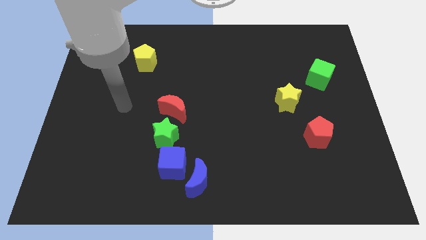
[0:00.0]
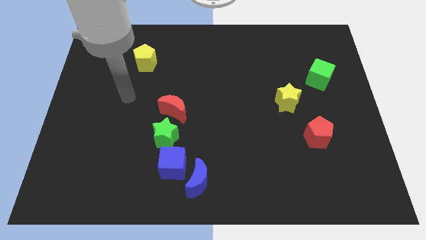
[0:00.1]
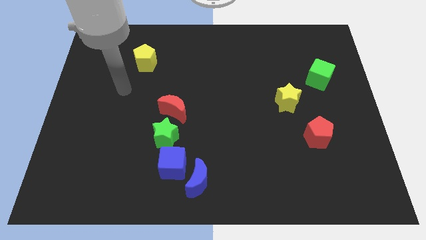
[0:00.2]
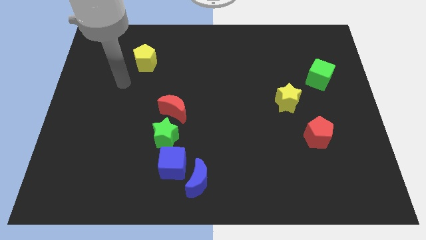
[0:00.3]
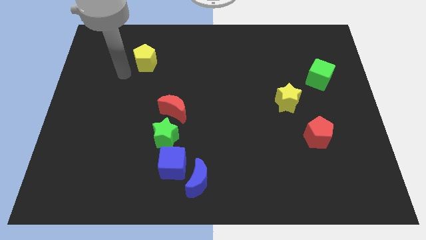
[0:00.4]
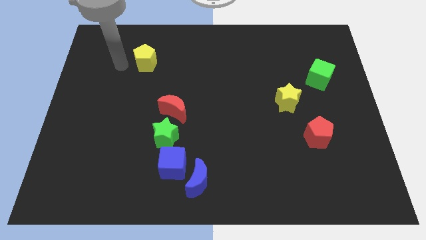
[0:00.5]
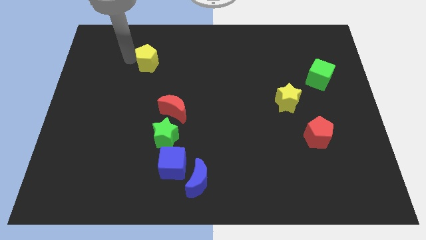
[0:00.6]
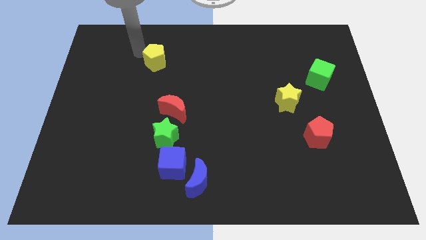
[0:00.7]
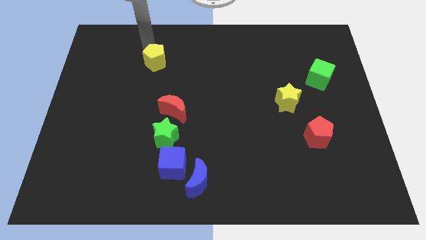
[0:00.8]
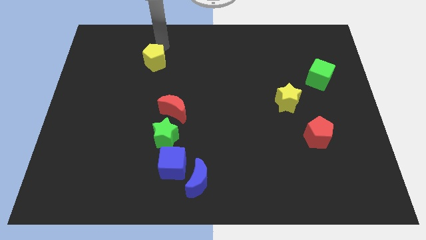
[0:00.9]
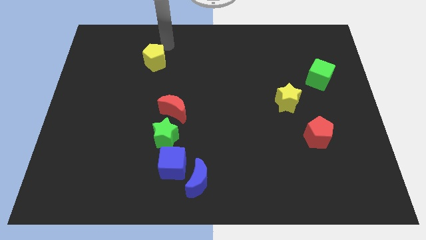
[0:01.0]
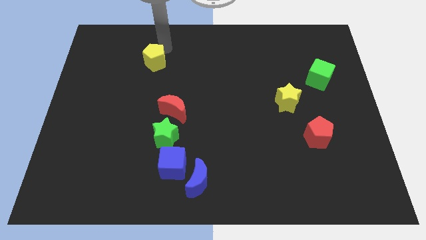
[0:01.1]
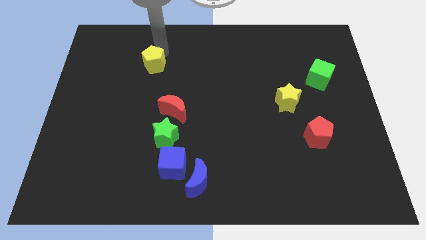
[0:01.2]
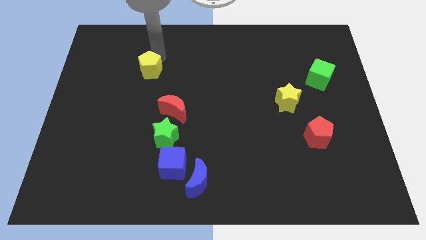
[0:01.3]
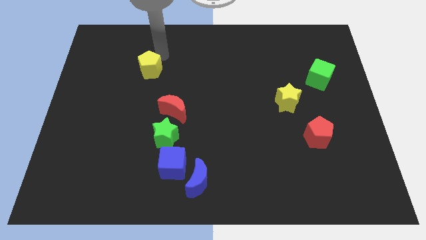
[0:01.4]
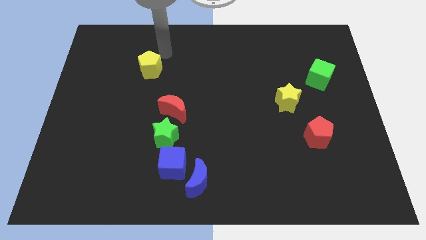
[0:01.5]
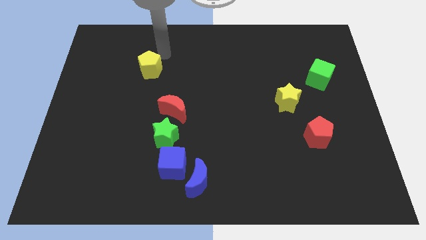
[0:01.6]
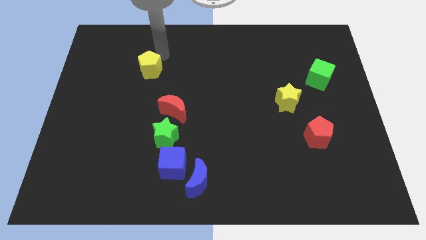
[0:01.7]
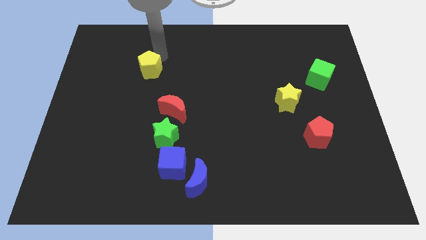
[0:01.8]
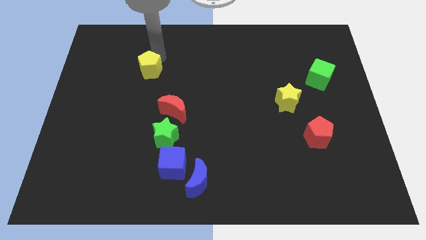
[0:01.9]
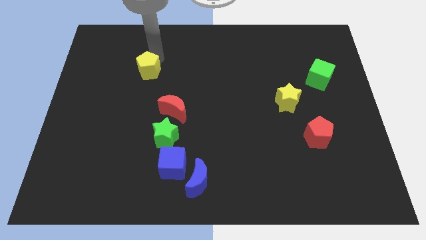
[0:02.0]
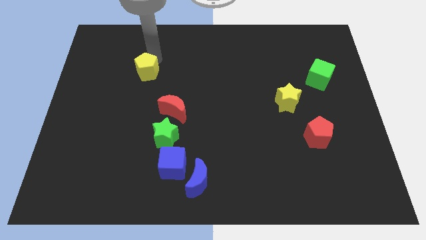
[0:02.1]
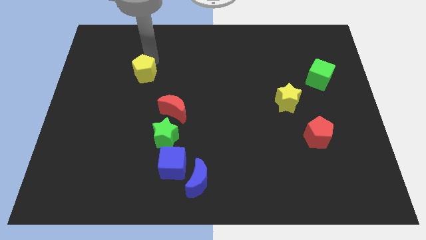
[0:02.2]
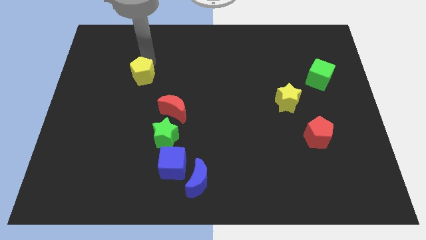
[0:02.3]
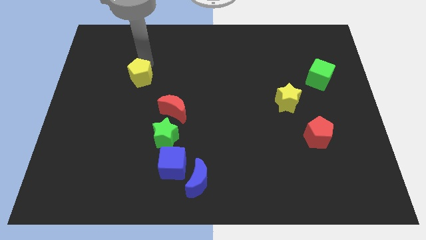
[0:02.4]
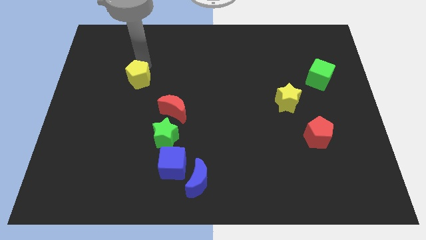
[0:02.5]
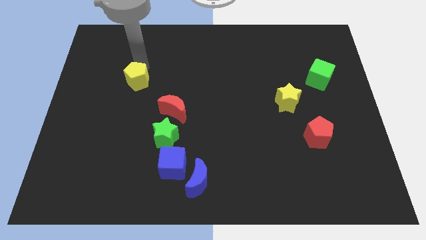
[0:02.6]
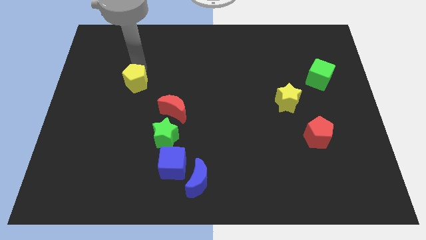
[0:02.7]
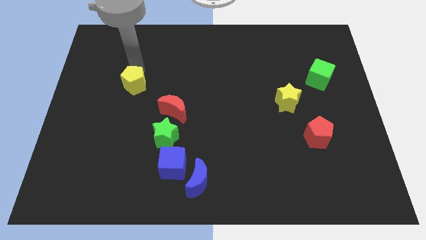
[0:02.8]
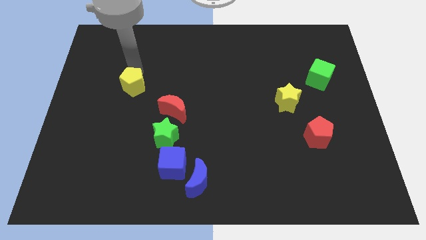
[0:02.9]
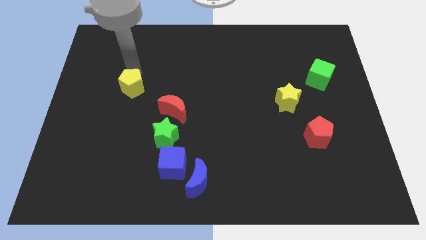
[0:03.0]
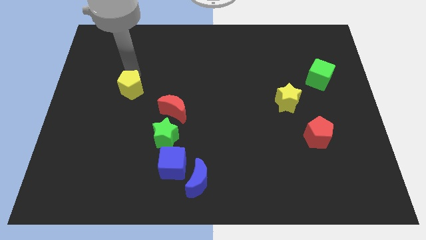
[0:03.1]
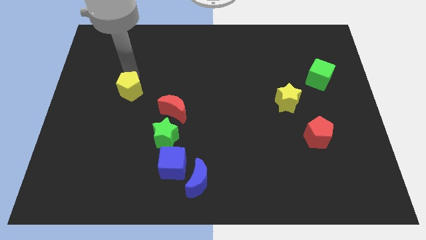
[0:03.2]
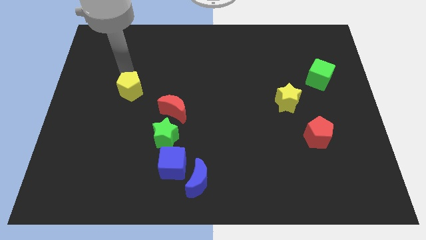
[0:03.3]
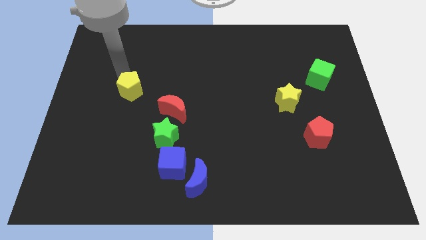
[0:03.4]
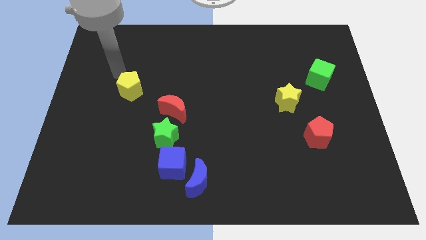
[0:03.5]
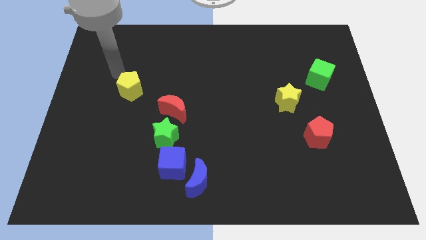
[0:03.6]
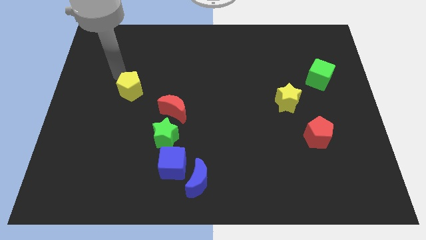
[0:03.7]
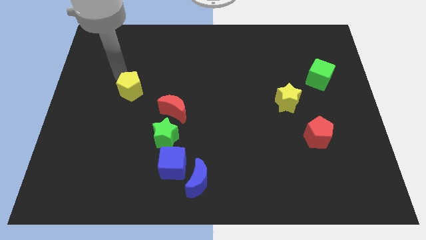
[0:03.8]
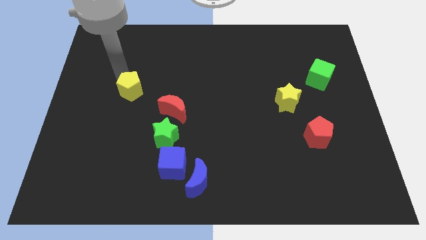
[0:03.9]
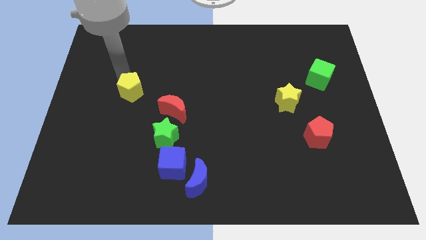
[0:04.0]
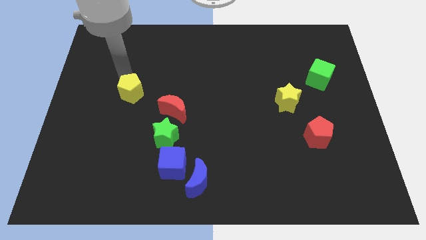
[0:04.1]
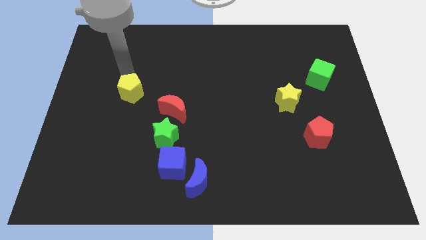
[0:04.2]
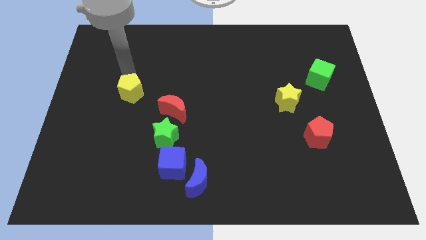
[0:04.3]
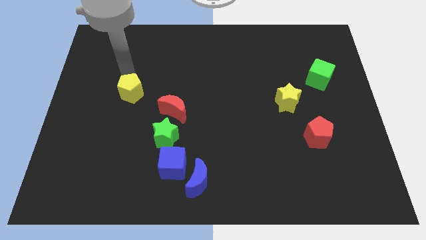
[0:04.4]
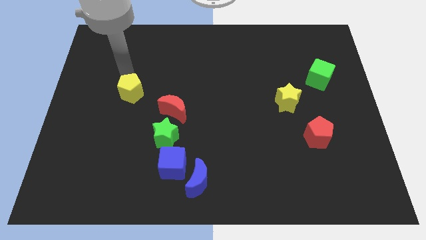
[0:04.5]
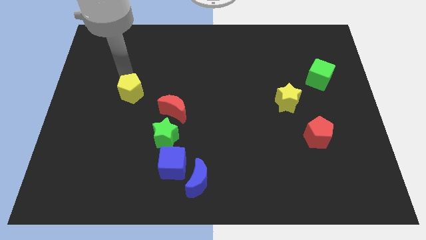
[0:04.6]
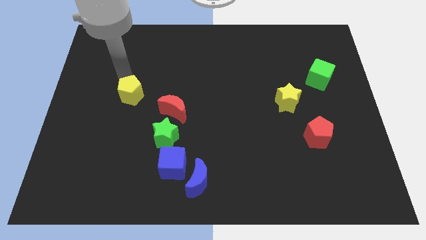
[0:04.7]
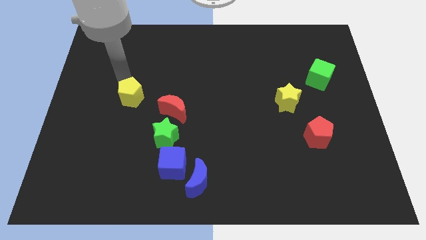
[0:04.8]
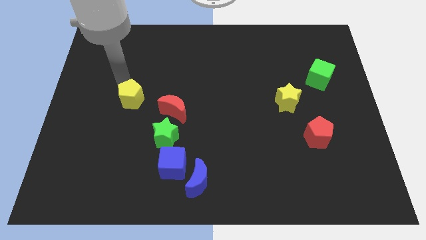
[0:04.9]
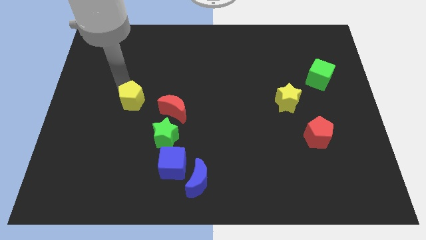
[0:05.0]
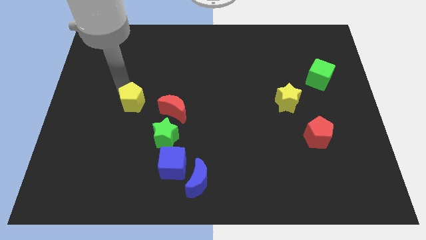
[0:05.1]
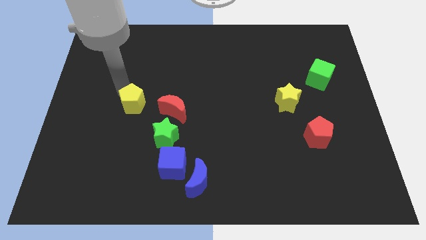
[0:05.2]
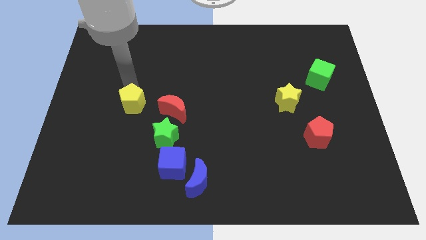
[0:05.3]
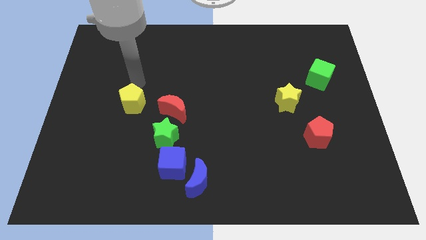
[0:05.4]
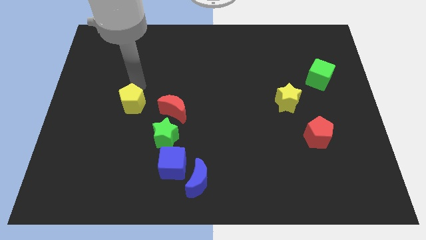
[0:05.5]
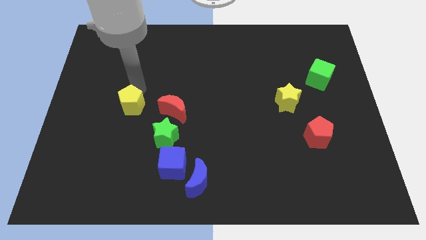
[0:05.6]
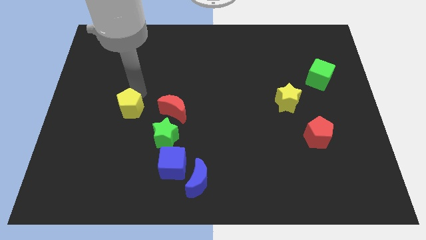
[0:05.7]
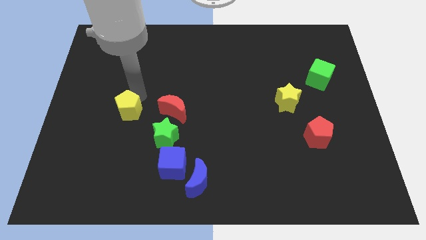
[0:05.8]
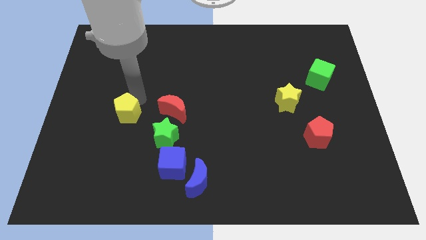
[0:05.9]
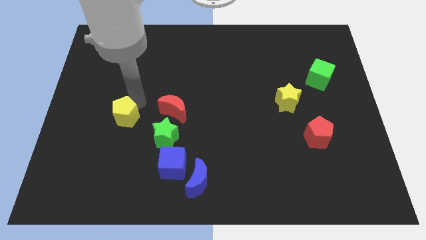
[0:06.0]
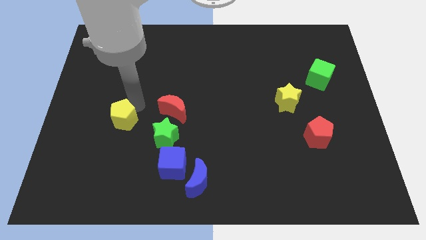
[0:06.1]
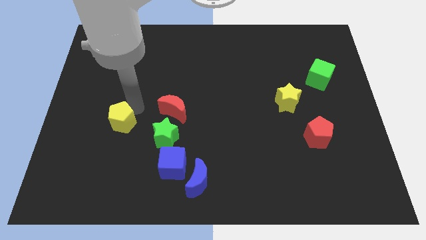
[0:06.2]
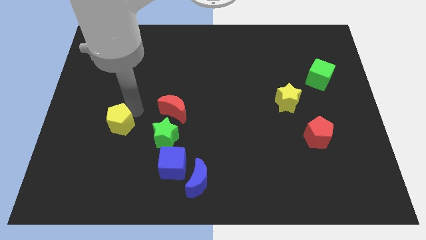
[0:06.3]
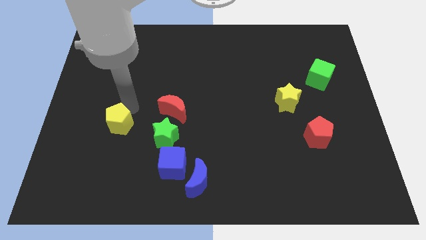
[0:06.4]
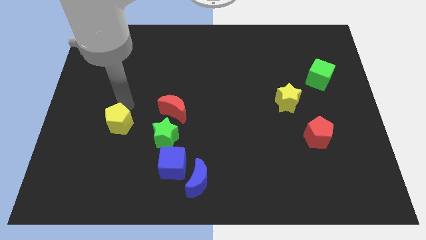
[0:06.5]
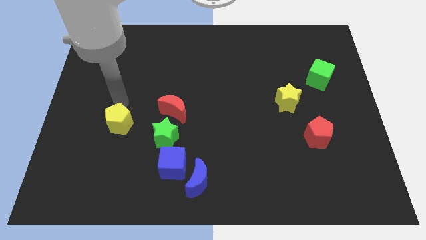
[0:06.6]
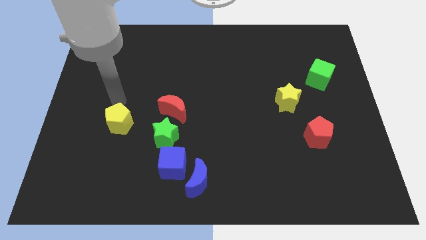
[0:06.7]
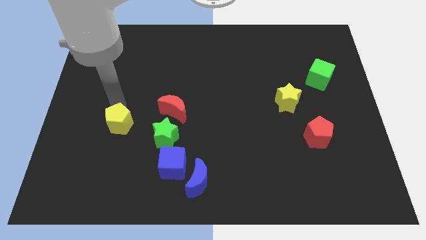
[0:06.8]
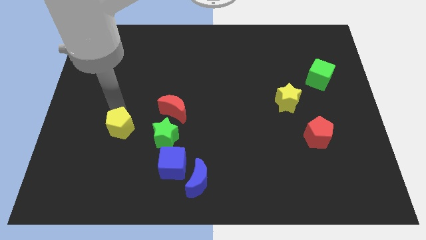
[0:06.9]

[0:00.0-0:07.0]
slide the yellow pentagon down

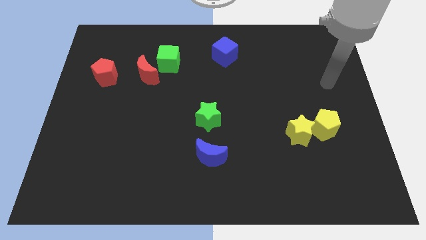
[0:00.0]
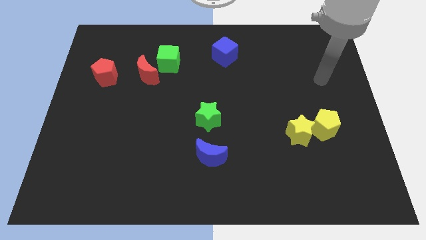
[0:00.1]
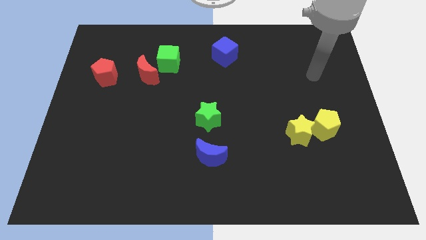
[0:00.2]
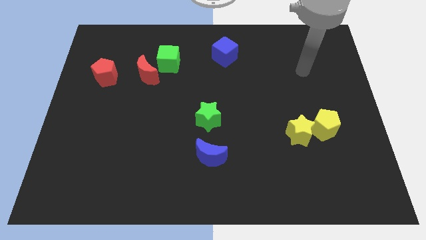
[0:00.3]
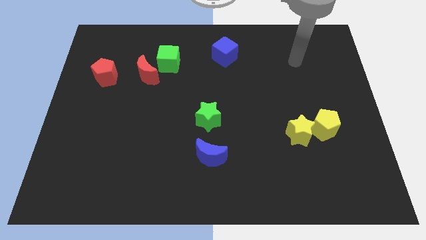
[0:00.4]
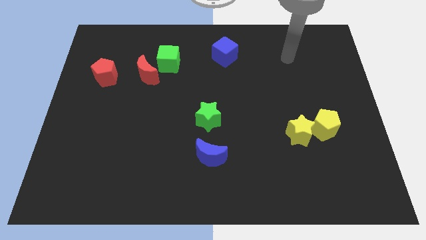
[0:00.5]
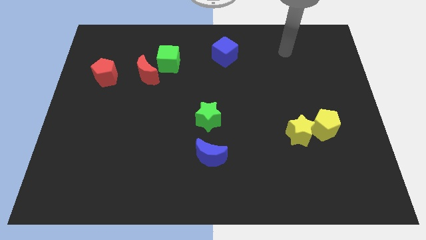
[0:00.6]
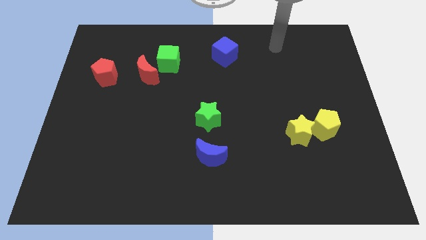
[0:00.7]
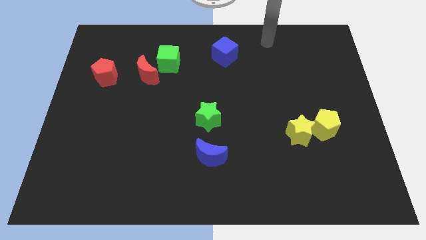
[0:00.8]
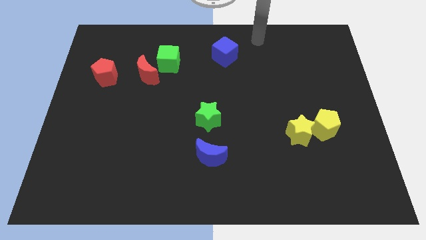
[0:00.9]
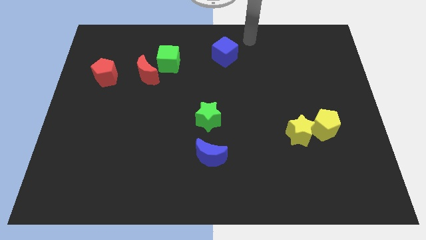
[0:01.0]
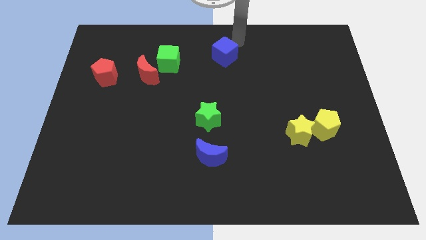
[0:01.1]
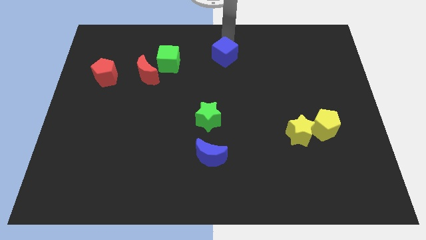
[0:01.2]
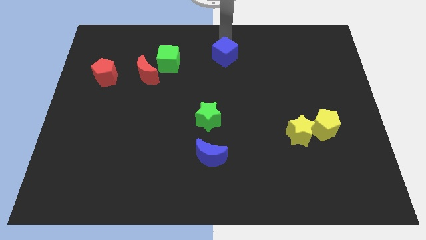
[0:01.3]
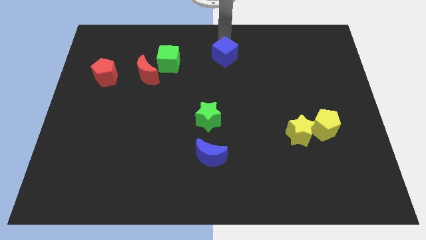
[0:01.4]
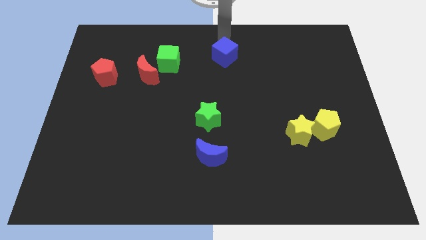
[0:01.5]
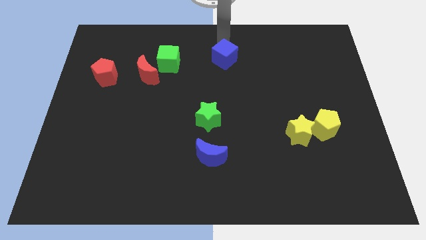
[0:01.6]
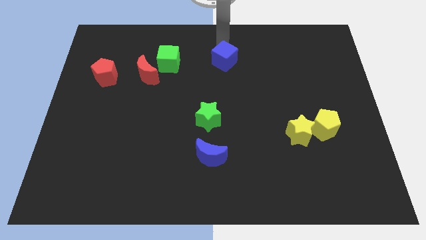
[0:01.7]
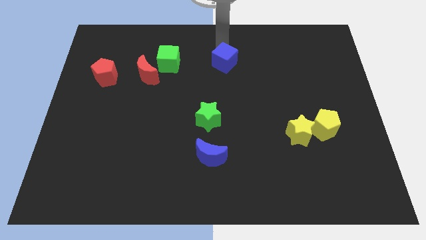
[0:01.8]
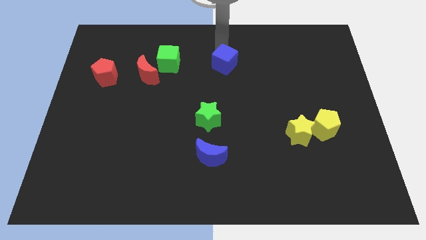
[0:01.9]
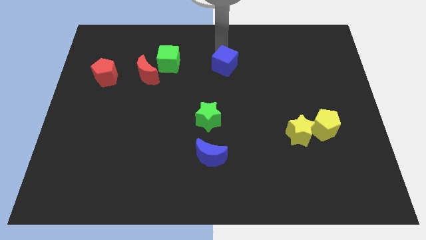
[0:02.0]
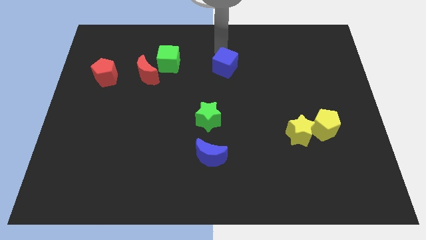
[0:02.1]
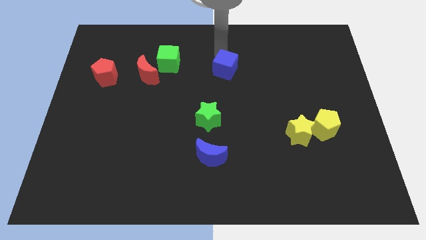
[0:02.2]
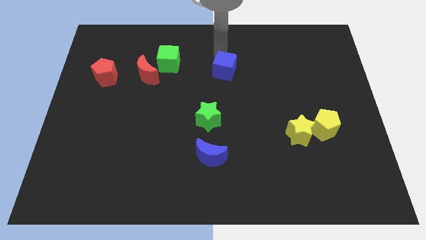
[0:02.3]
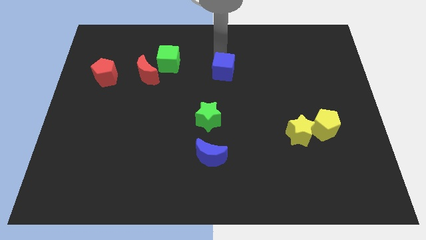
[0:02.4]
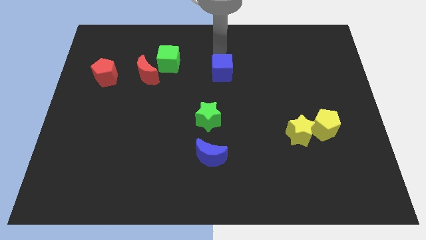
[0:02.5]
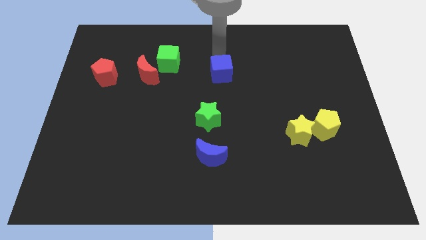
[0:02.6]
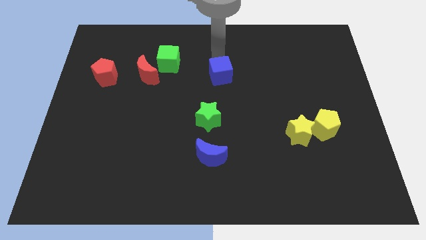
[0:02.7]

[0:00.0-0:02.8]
move the blue cube slightly down
